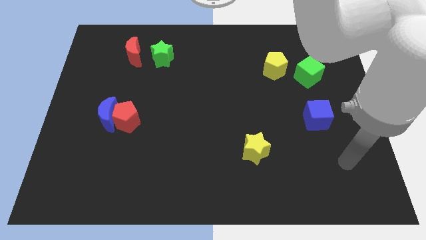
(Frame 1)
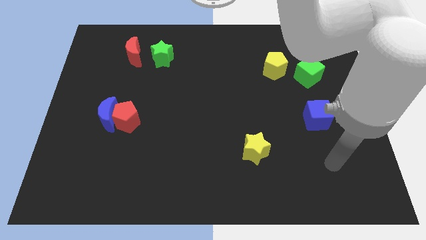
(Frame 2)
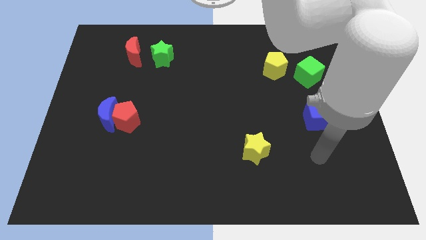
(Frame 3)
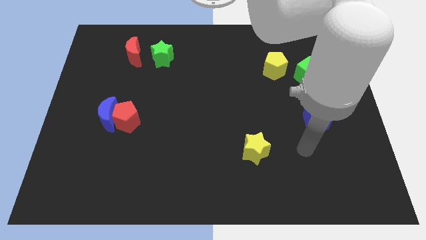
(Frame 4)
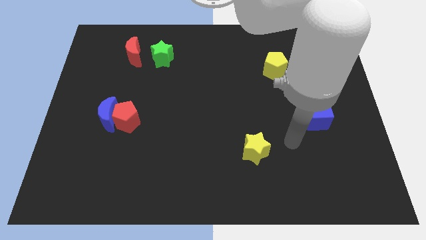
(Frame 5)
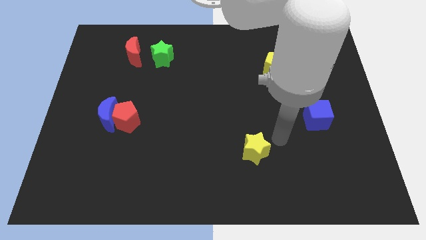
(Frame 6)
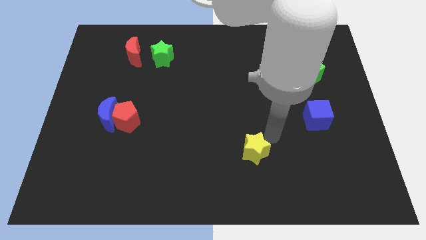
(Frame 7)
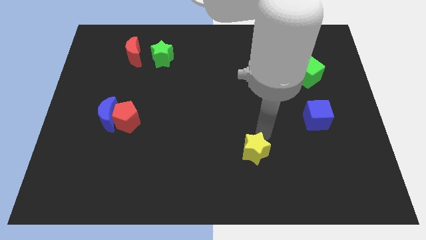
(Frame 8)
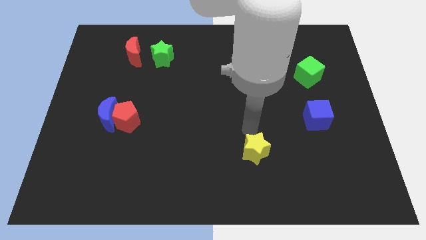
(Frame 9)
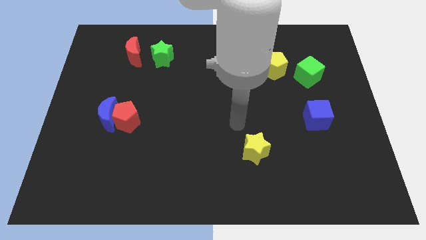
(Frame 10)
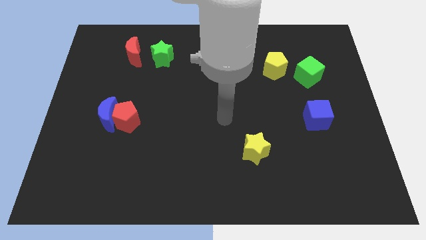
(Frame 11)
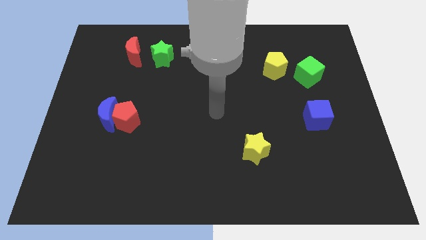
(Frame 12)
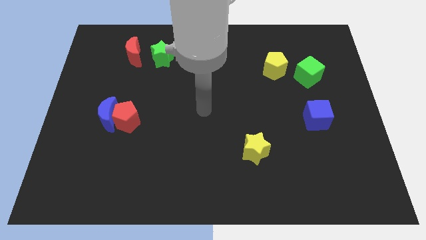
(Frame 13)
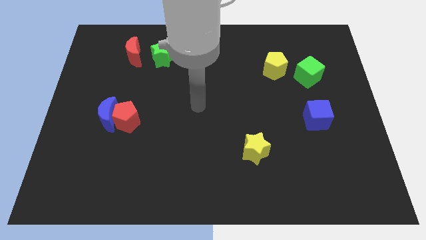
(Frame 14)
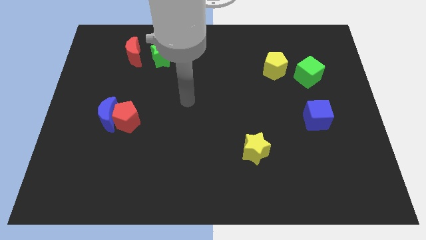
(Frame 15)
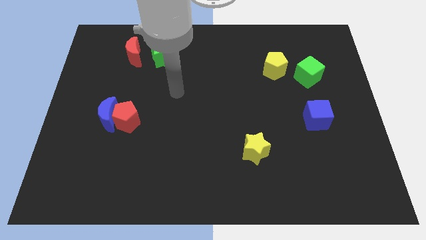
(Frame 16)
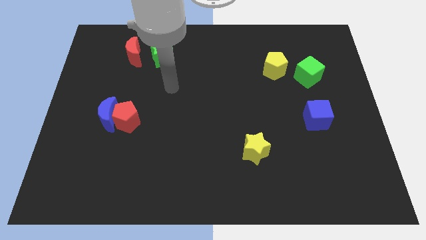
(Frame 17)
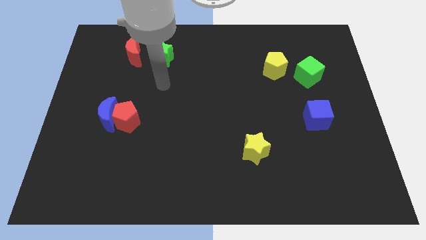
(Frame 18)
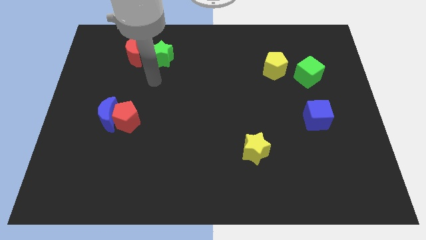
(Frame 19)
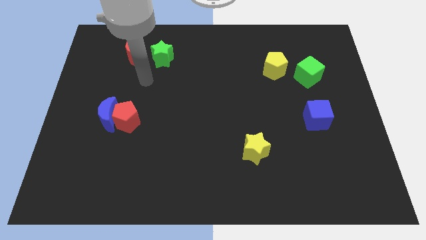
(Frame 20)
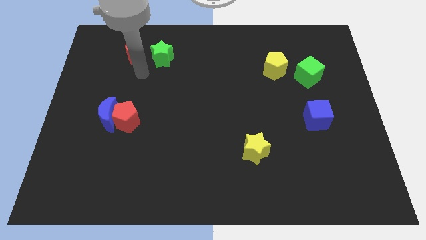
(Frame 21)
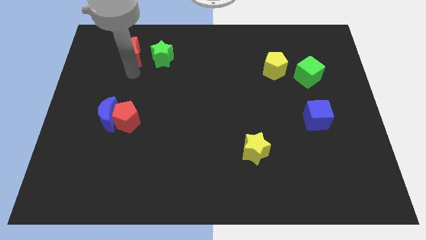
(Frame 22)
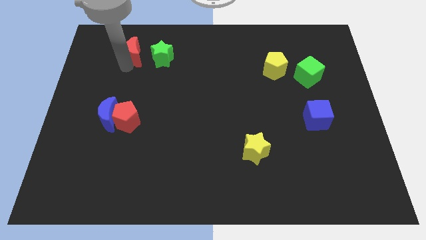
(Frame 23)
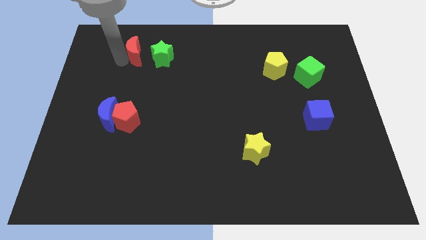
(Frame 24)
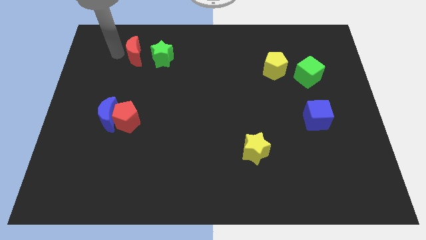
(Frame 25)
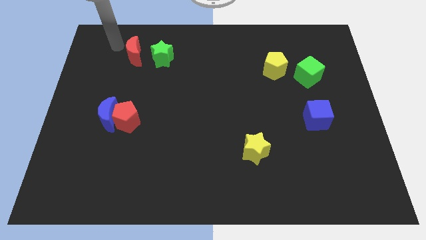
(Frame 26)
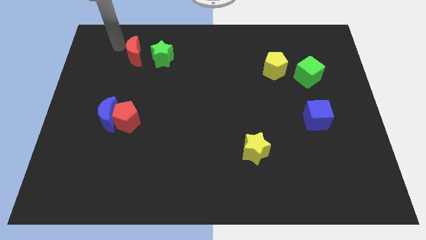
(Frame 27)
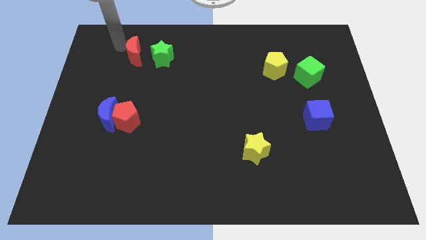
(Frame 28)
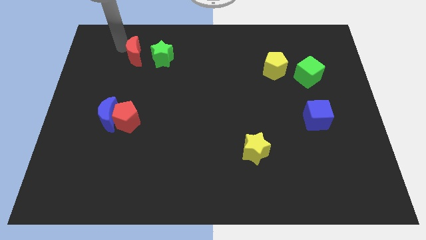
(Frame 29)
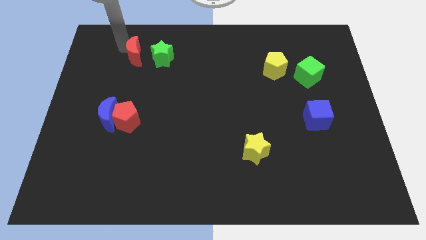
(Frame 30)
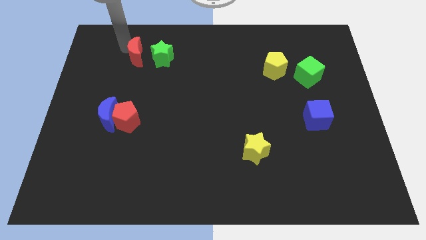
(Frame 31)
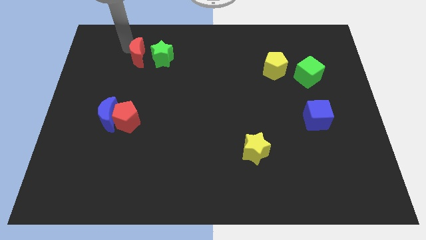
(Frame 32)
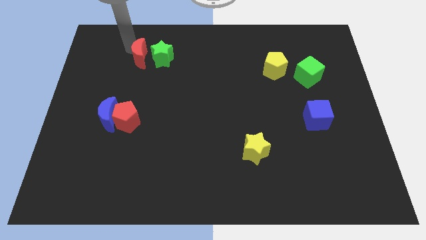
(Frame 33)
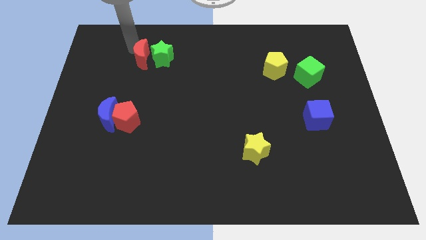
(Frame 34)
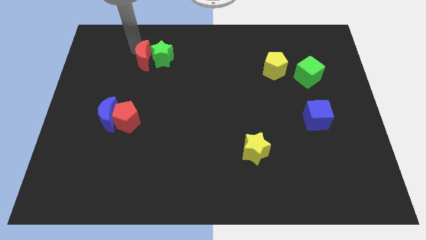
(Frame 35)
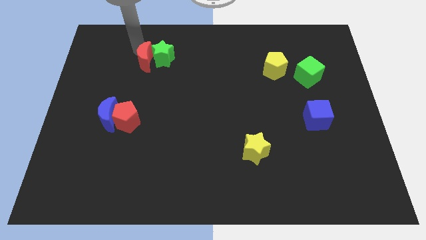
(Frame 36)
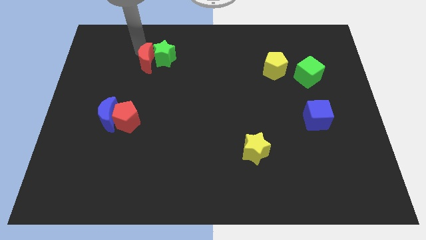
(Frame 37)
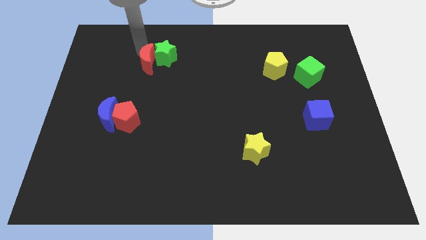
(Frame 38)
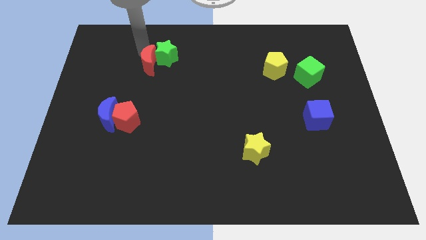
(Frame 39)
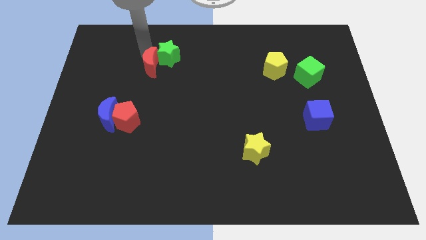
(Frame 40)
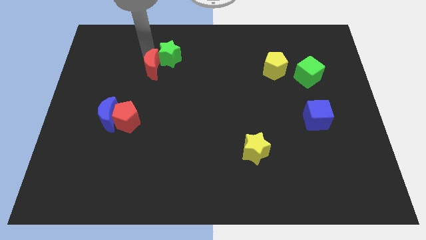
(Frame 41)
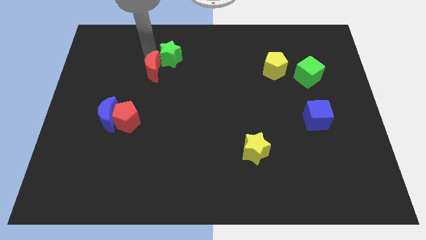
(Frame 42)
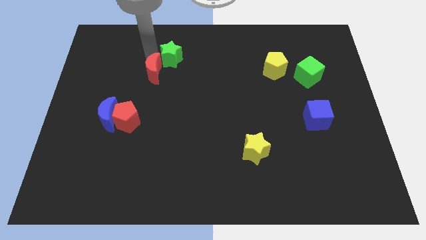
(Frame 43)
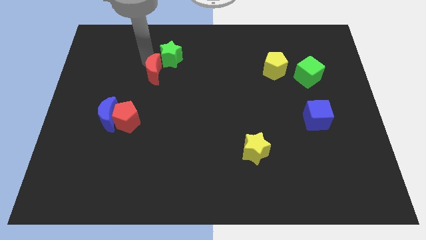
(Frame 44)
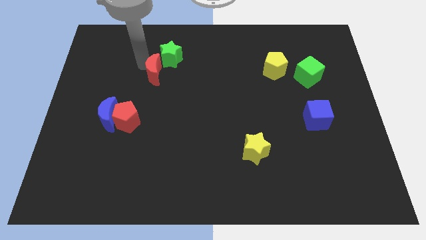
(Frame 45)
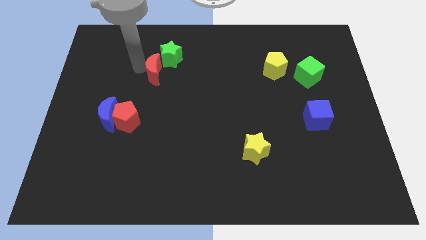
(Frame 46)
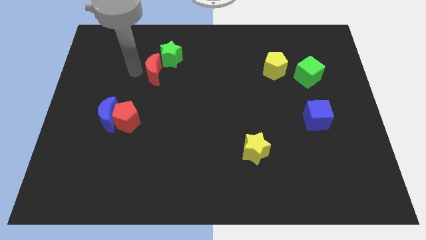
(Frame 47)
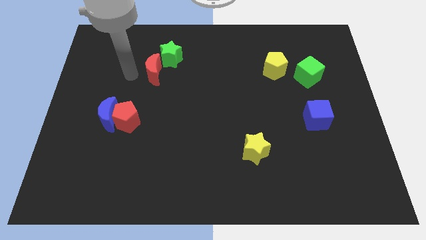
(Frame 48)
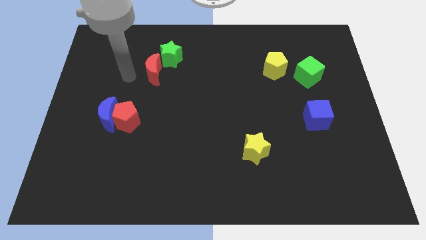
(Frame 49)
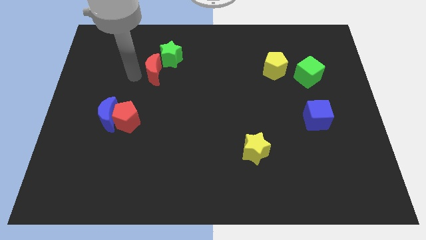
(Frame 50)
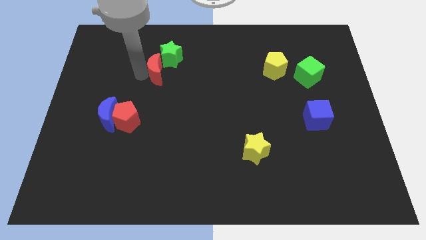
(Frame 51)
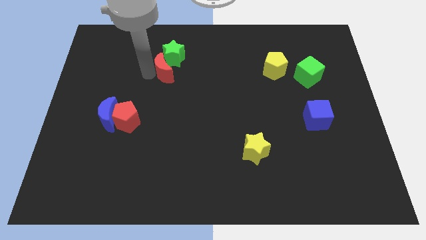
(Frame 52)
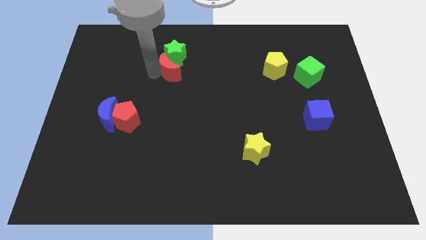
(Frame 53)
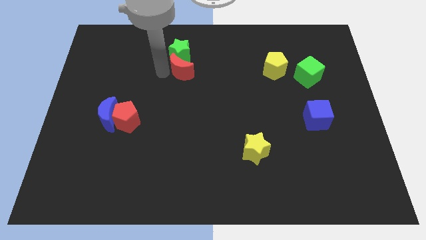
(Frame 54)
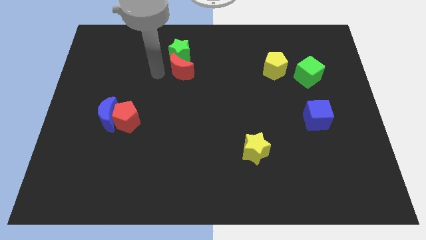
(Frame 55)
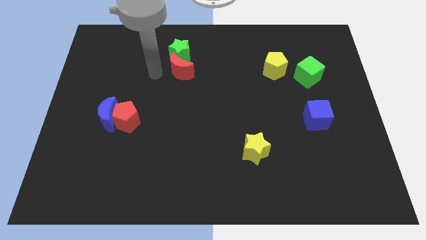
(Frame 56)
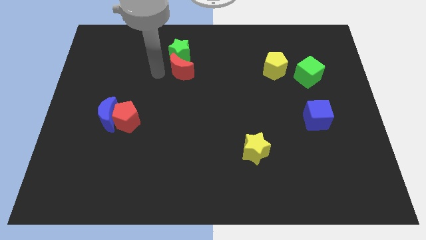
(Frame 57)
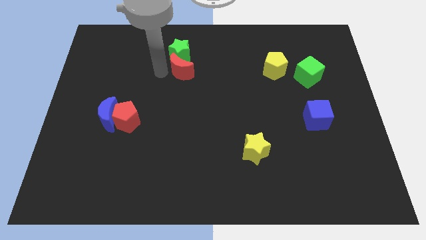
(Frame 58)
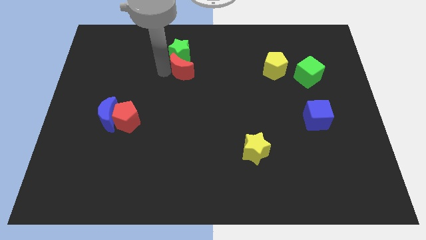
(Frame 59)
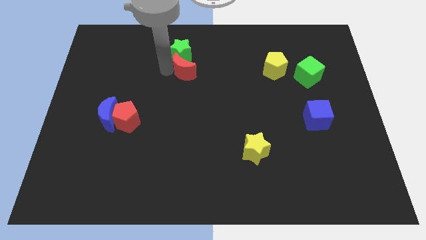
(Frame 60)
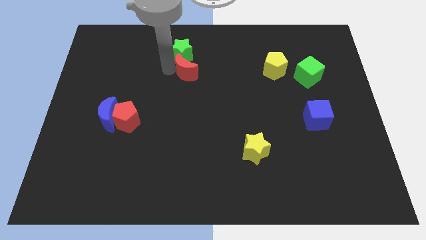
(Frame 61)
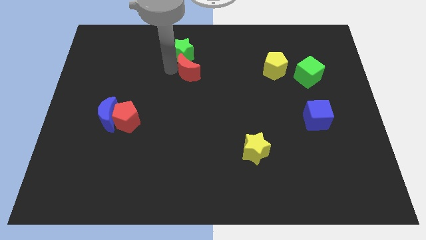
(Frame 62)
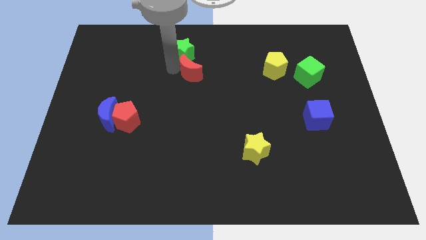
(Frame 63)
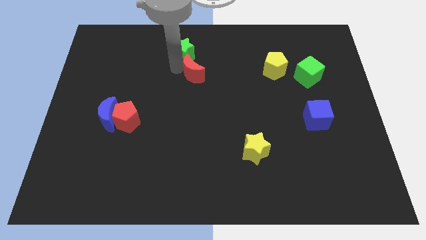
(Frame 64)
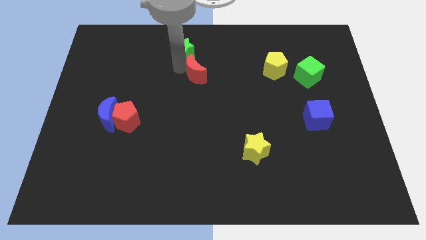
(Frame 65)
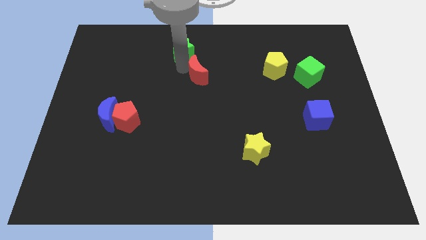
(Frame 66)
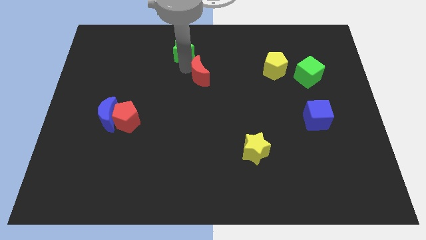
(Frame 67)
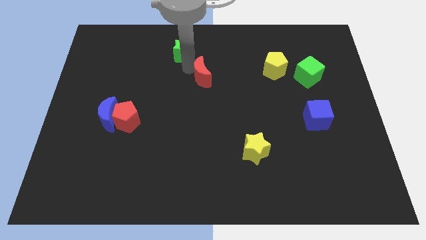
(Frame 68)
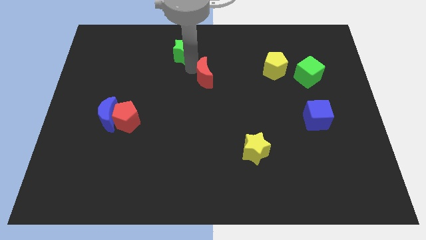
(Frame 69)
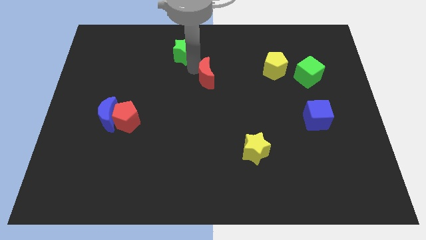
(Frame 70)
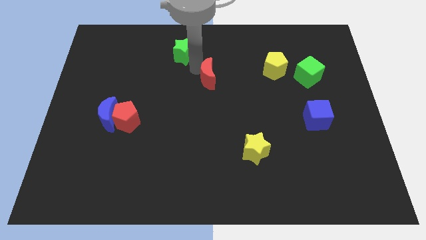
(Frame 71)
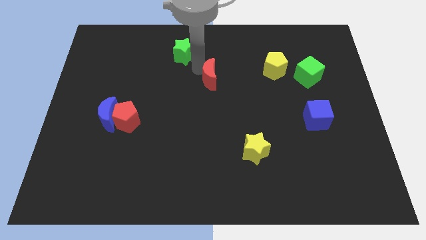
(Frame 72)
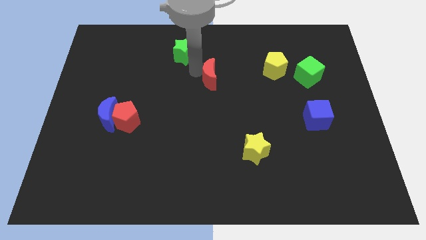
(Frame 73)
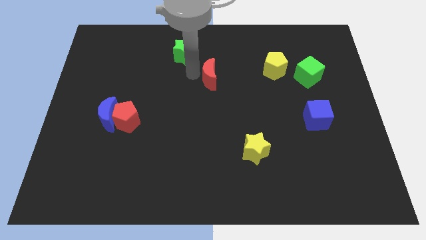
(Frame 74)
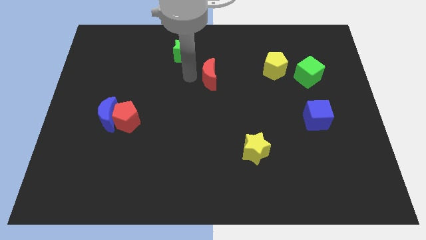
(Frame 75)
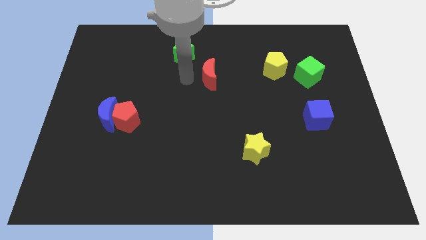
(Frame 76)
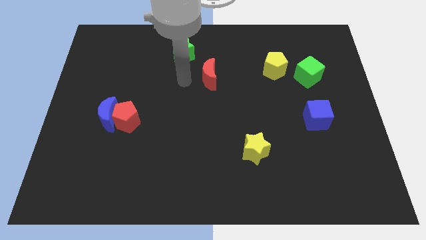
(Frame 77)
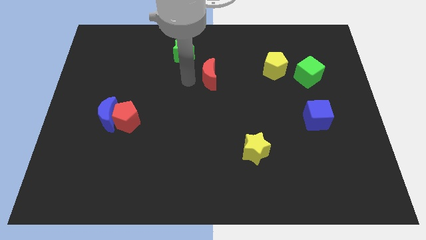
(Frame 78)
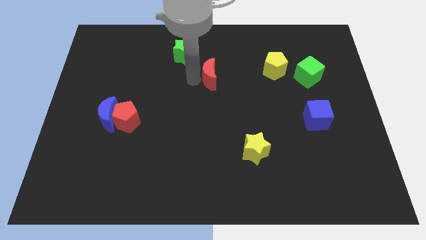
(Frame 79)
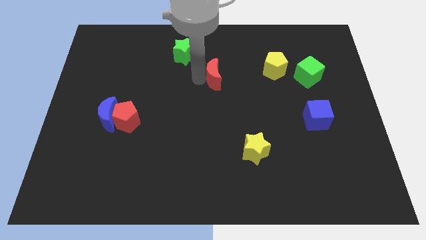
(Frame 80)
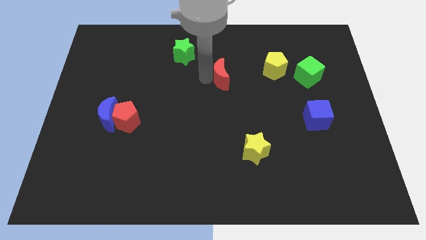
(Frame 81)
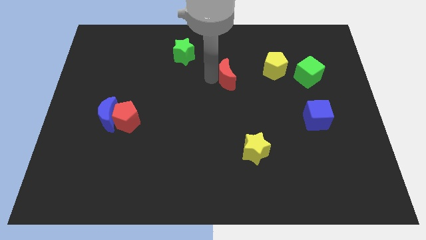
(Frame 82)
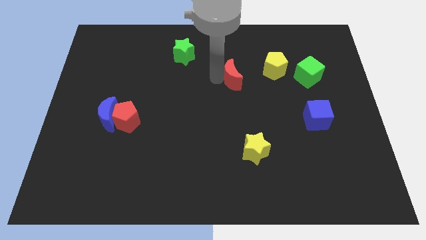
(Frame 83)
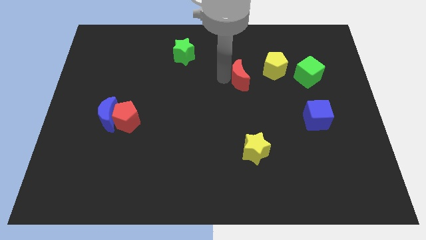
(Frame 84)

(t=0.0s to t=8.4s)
move the red moon to the bottom left of the yellow pentagon
